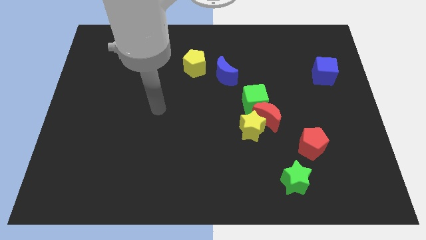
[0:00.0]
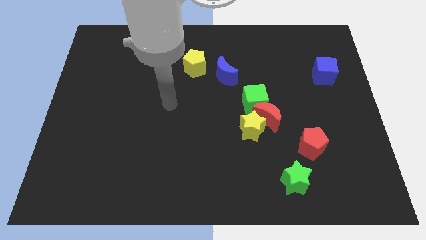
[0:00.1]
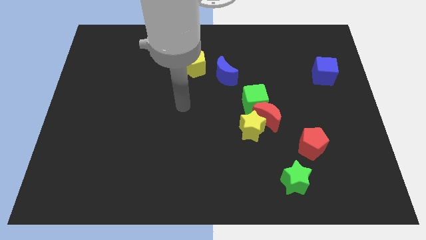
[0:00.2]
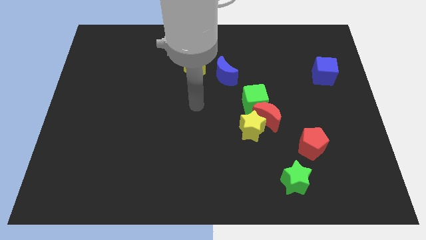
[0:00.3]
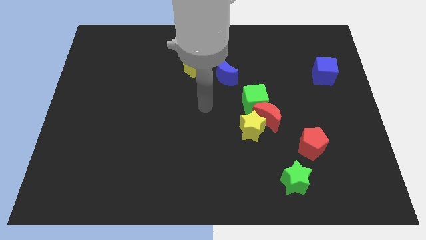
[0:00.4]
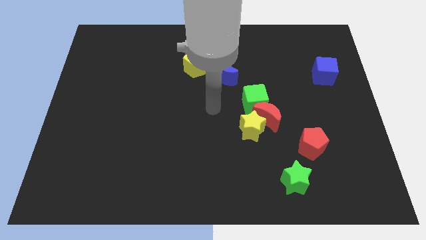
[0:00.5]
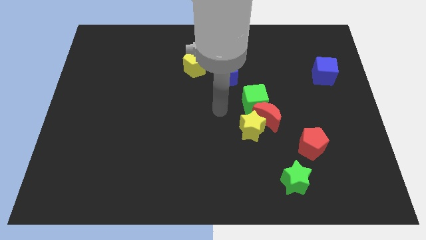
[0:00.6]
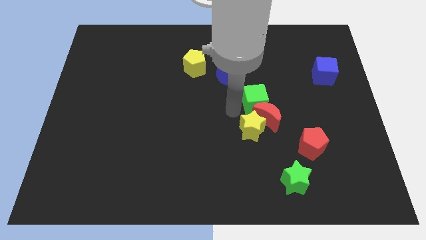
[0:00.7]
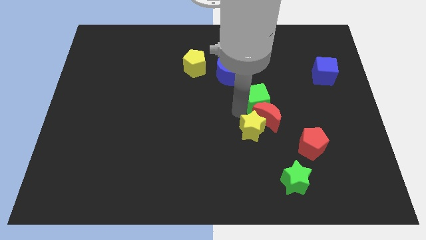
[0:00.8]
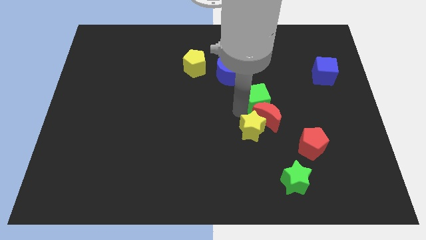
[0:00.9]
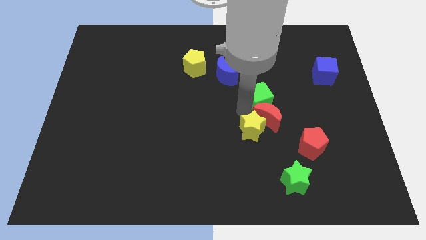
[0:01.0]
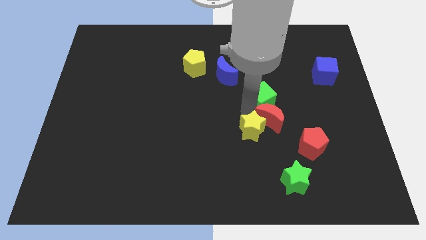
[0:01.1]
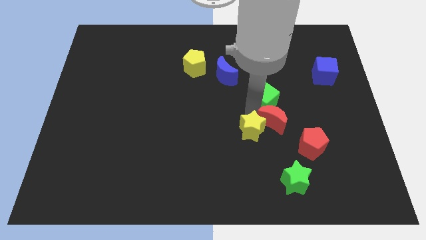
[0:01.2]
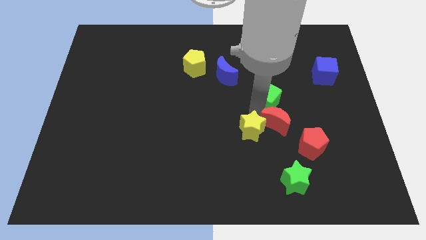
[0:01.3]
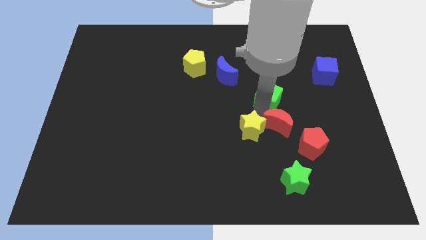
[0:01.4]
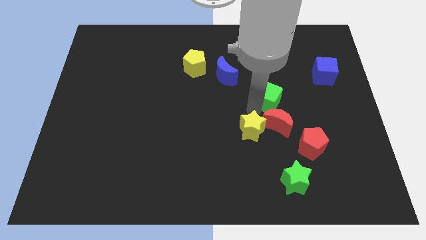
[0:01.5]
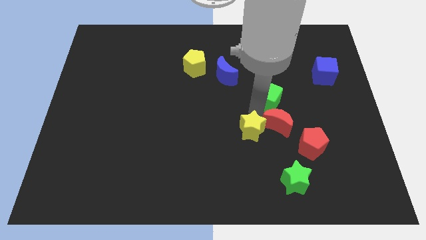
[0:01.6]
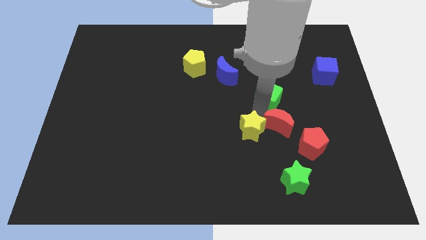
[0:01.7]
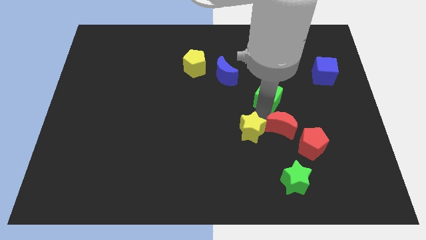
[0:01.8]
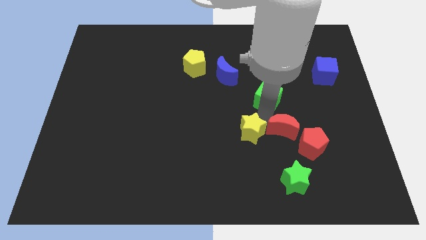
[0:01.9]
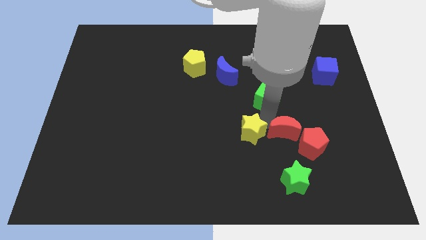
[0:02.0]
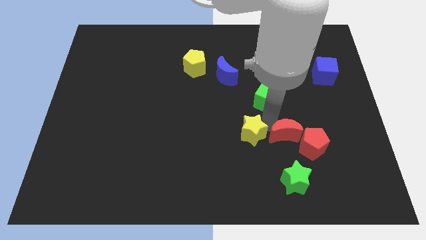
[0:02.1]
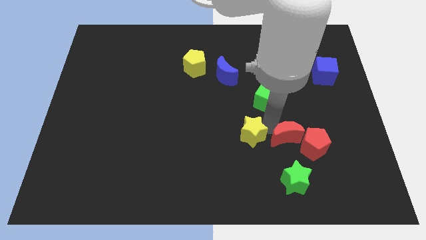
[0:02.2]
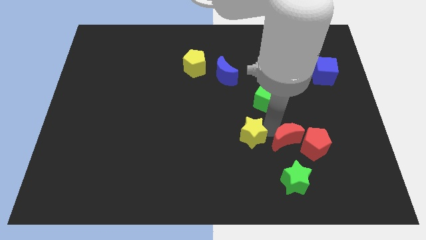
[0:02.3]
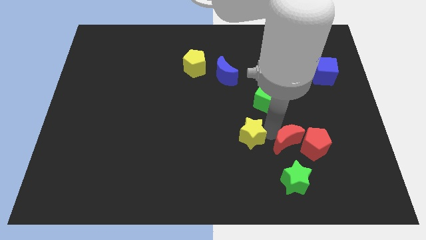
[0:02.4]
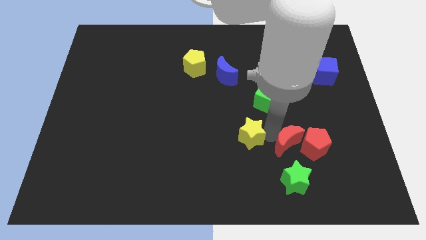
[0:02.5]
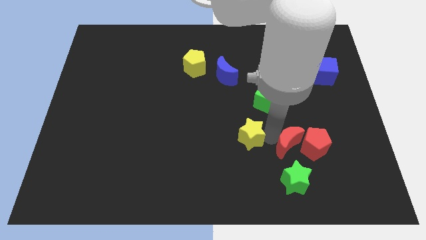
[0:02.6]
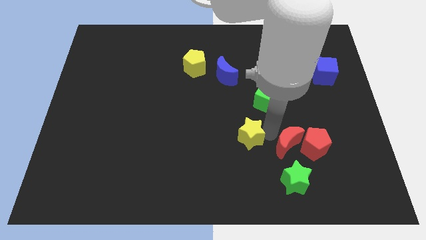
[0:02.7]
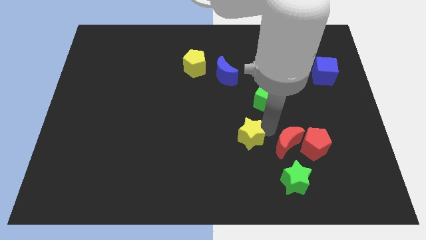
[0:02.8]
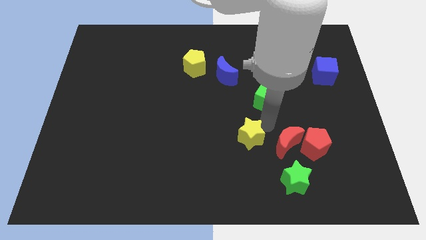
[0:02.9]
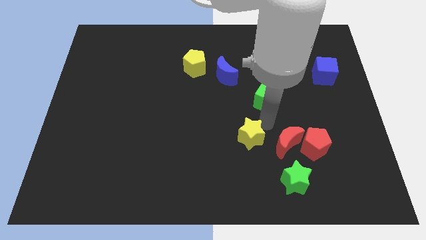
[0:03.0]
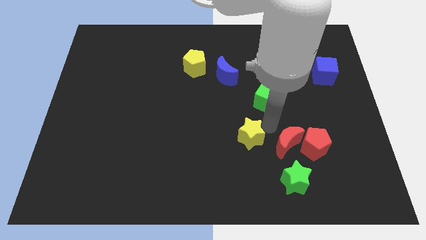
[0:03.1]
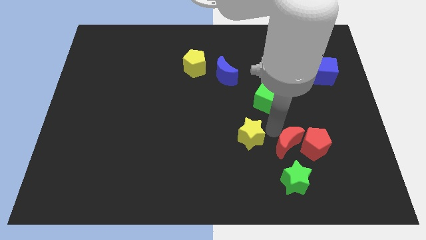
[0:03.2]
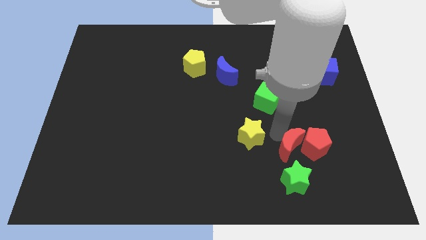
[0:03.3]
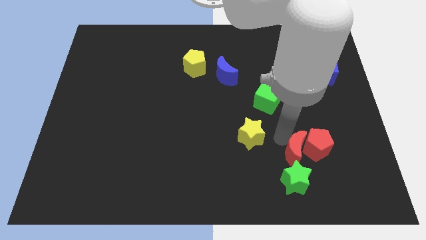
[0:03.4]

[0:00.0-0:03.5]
separate the red moon from the yellow star and green cube

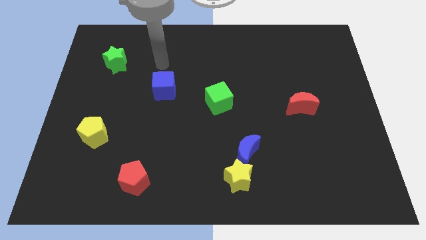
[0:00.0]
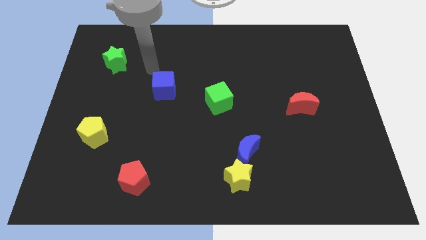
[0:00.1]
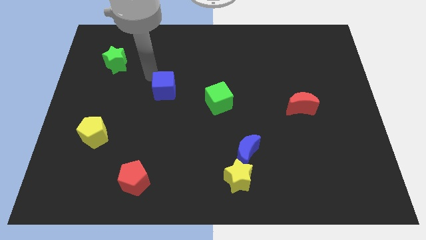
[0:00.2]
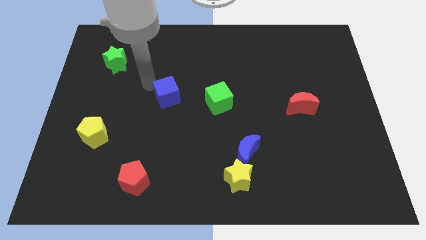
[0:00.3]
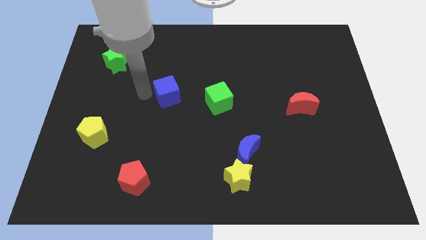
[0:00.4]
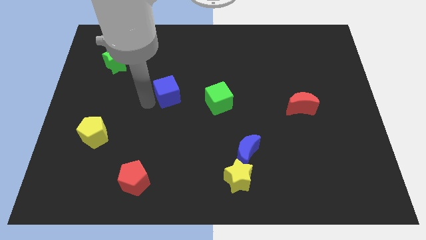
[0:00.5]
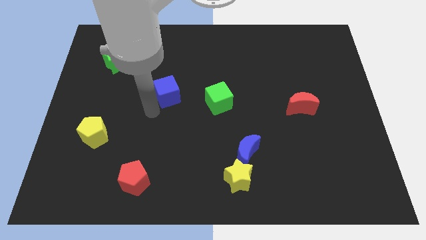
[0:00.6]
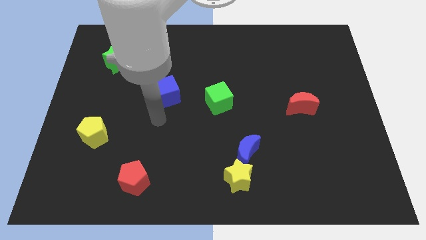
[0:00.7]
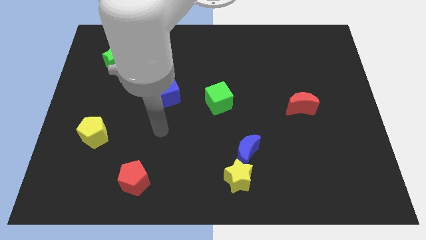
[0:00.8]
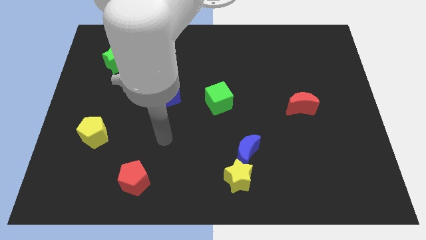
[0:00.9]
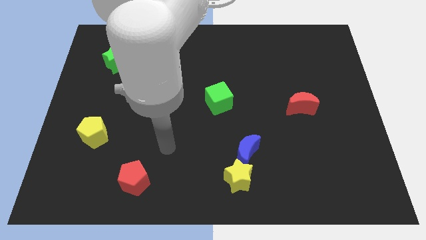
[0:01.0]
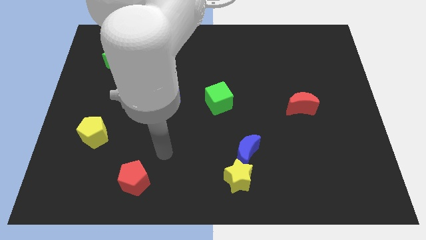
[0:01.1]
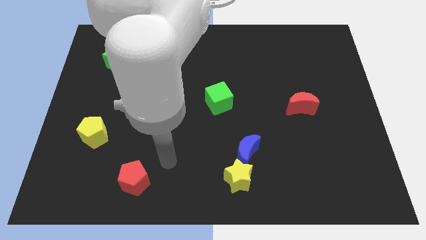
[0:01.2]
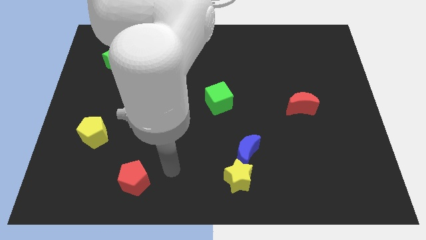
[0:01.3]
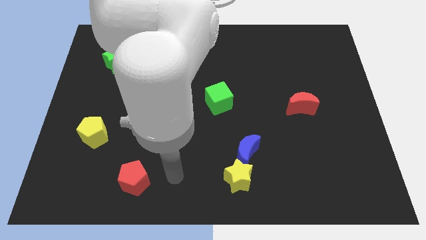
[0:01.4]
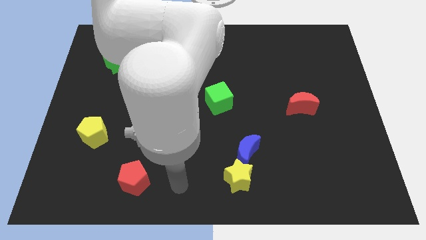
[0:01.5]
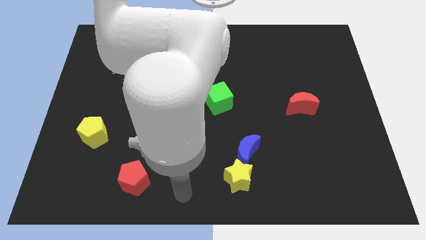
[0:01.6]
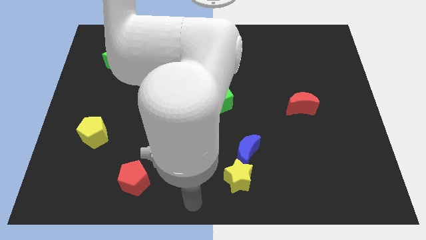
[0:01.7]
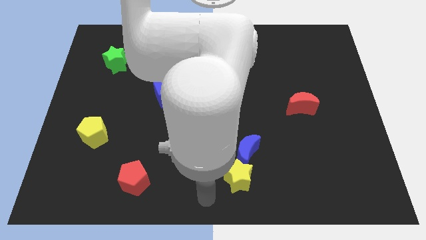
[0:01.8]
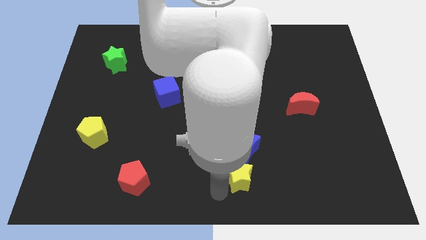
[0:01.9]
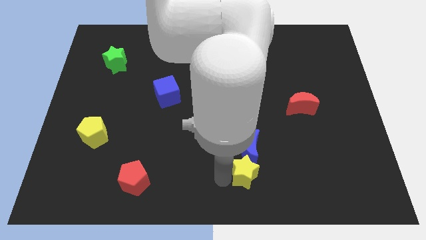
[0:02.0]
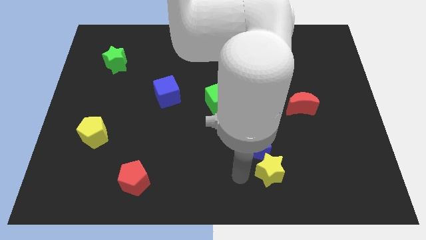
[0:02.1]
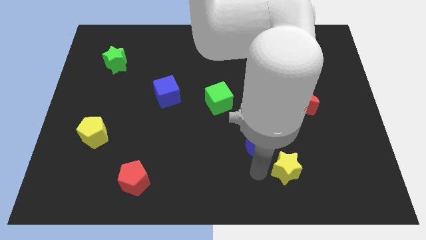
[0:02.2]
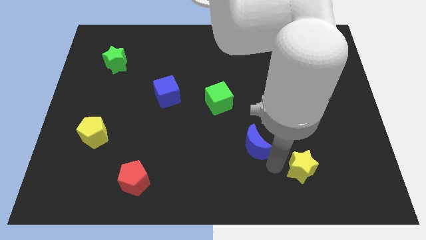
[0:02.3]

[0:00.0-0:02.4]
separate the blue moon from the yellow star

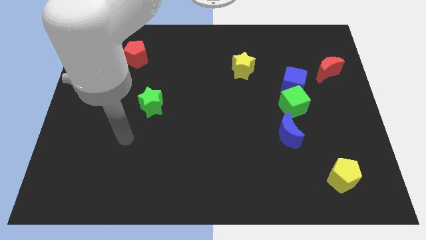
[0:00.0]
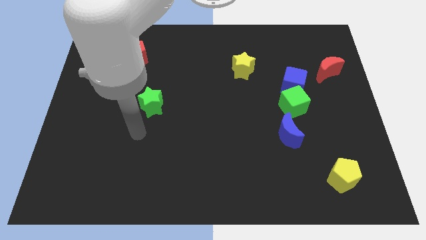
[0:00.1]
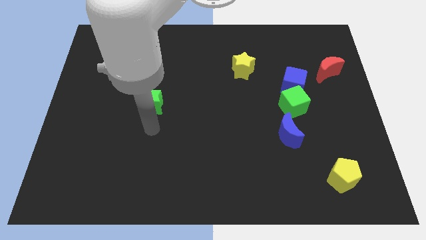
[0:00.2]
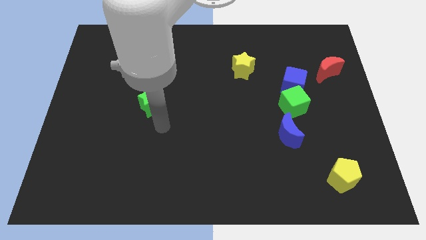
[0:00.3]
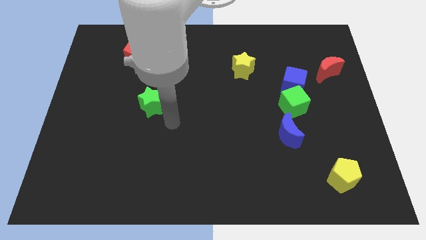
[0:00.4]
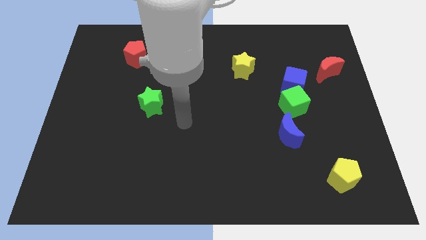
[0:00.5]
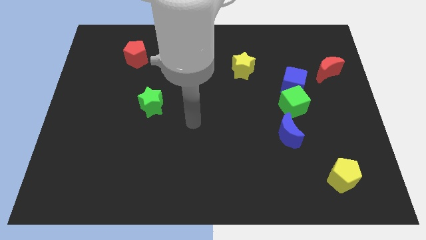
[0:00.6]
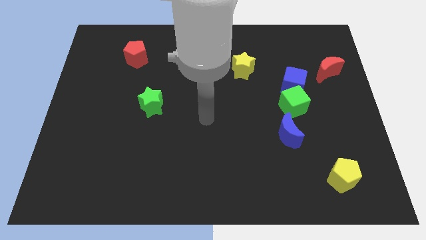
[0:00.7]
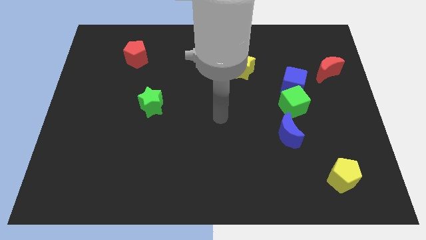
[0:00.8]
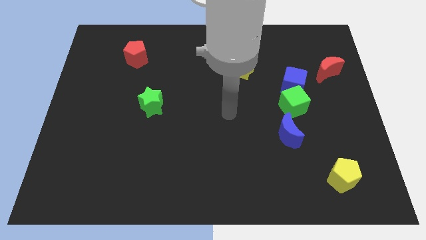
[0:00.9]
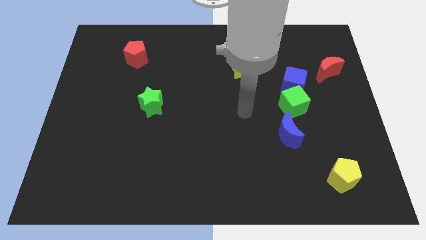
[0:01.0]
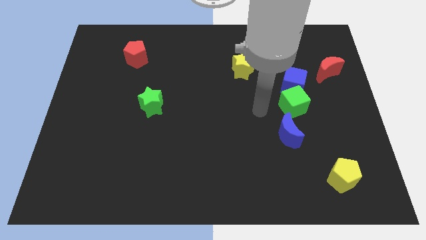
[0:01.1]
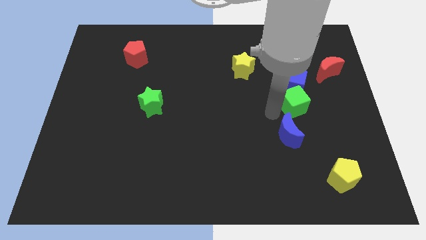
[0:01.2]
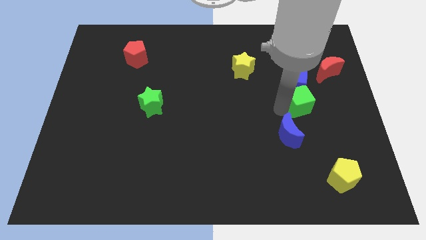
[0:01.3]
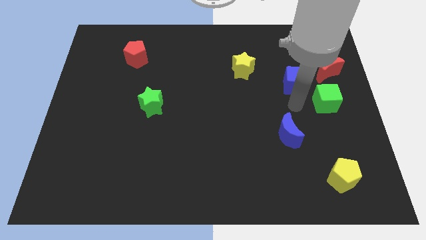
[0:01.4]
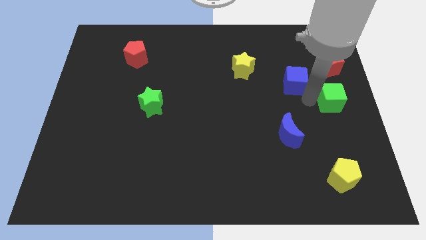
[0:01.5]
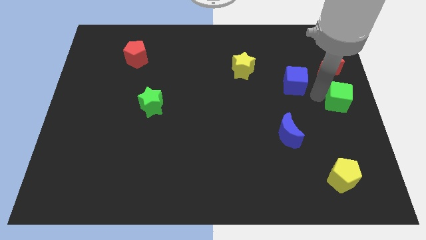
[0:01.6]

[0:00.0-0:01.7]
move the blue cube away from the green cube

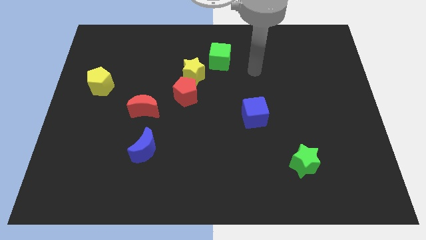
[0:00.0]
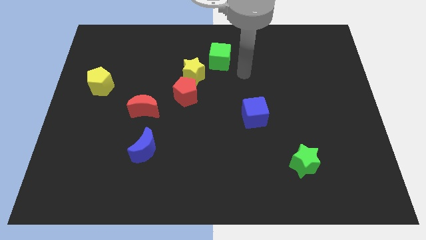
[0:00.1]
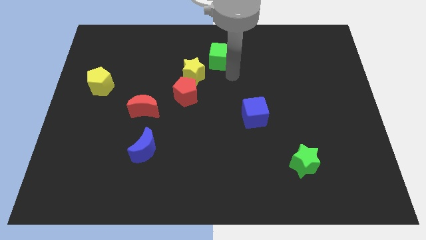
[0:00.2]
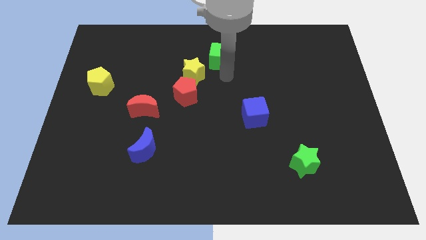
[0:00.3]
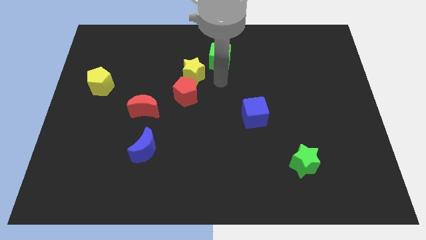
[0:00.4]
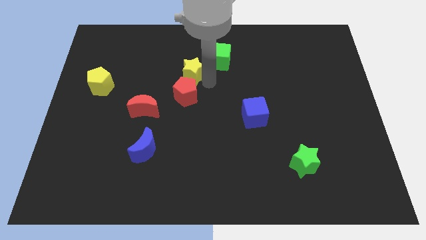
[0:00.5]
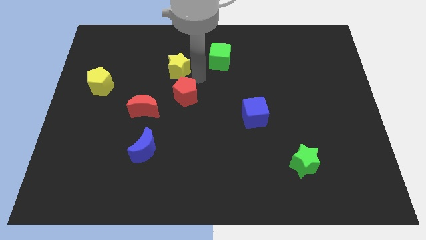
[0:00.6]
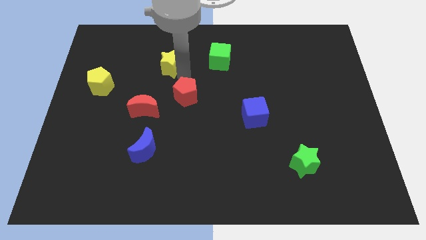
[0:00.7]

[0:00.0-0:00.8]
pull the red pentagon apart from the yellow star

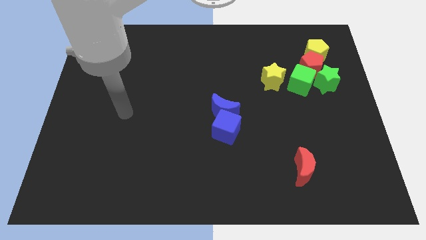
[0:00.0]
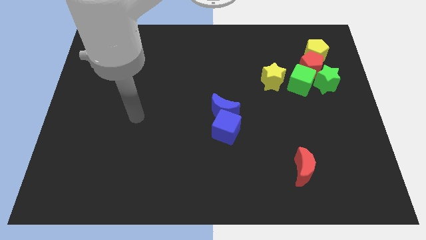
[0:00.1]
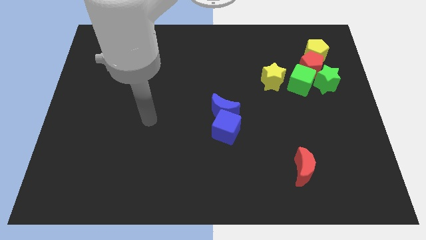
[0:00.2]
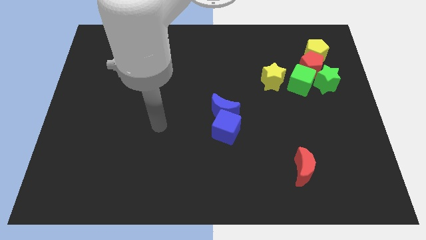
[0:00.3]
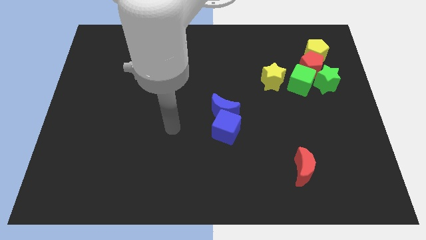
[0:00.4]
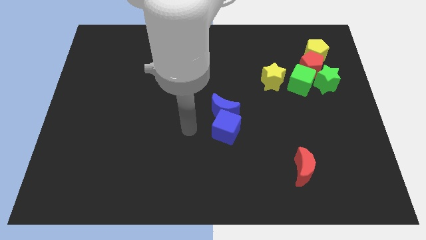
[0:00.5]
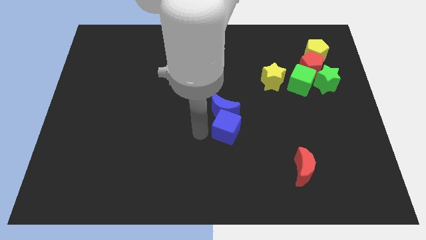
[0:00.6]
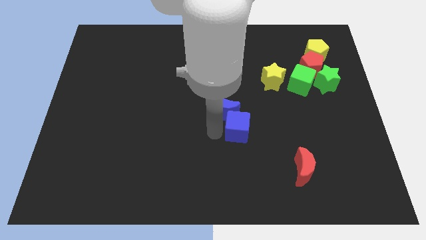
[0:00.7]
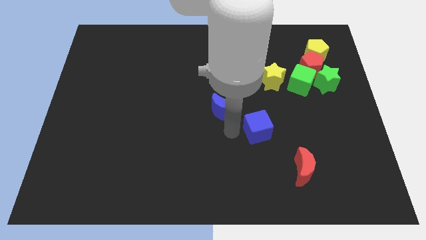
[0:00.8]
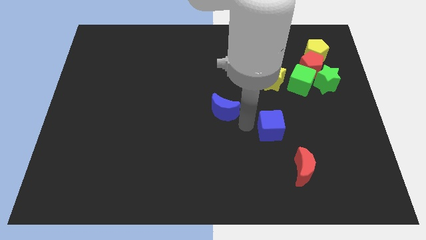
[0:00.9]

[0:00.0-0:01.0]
pull the blue moon apart from the blue cube
